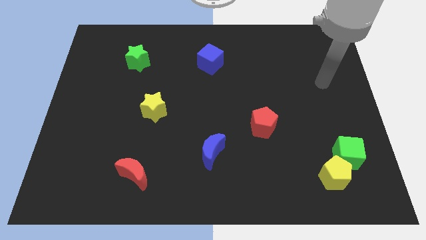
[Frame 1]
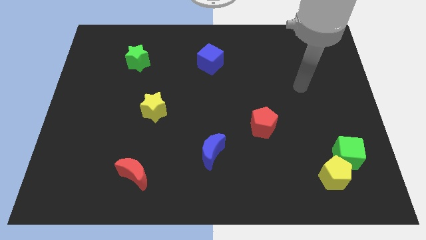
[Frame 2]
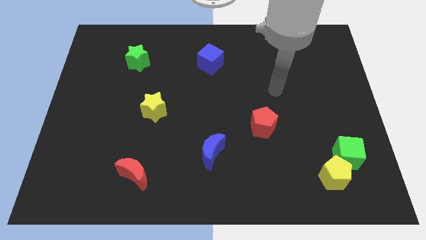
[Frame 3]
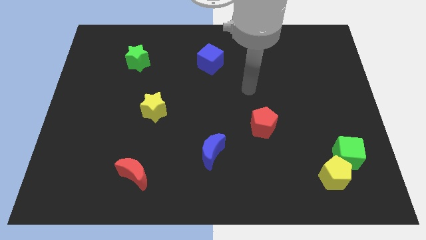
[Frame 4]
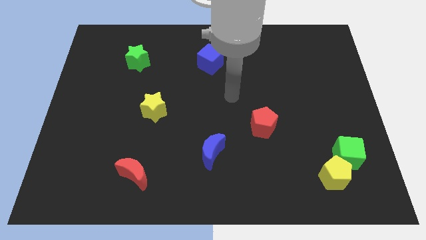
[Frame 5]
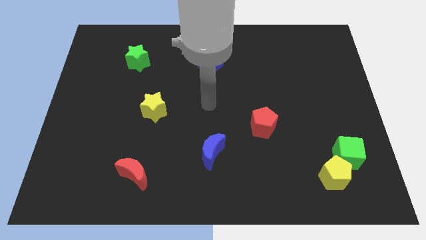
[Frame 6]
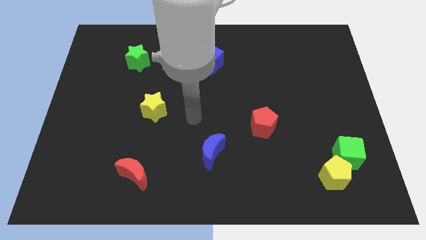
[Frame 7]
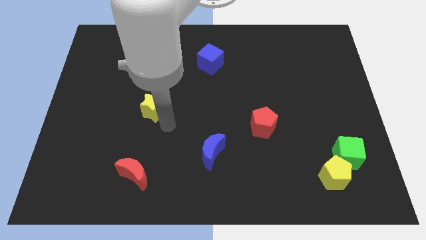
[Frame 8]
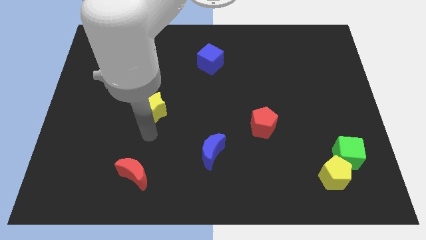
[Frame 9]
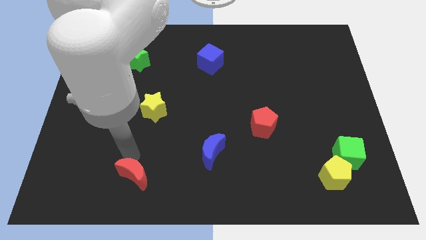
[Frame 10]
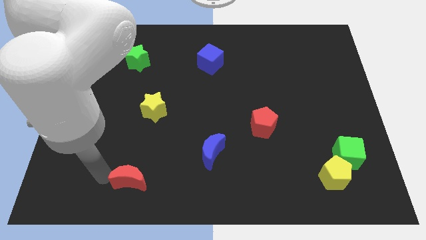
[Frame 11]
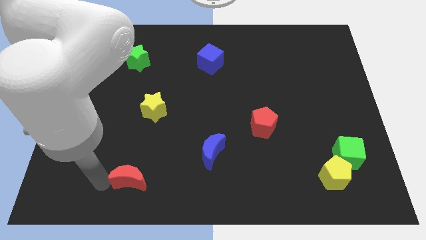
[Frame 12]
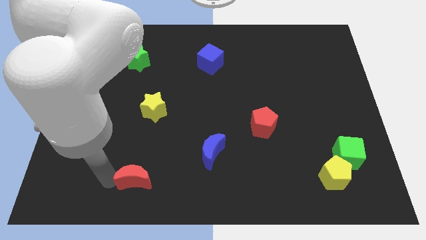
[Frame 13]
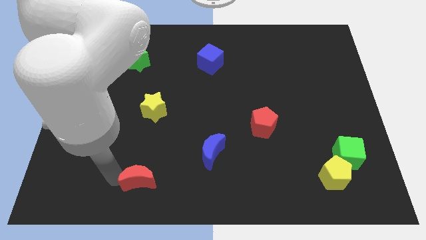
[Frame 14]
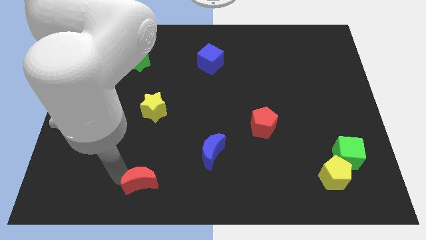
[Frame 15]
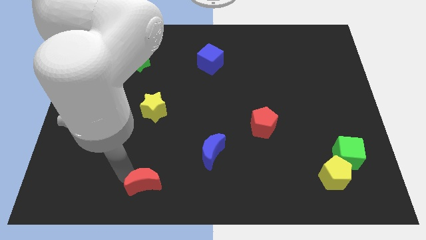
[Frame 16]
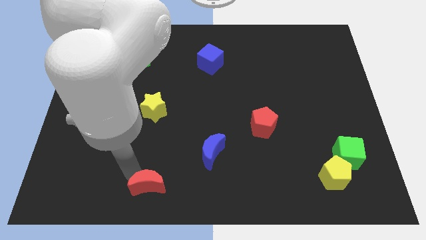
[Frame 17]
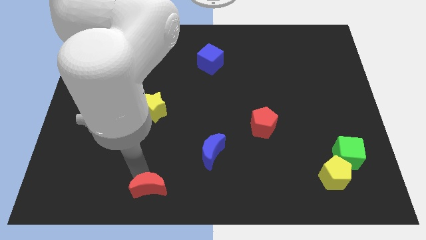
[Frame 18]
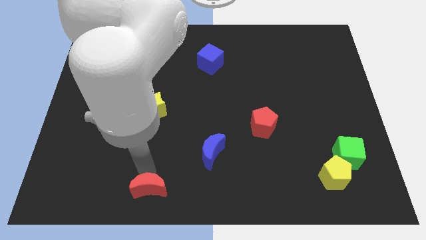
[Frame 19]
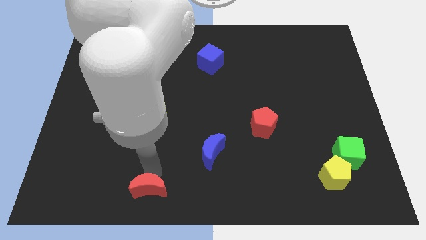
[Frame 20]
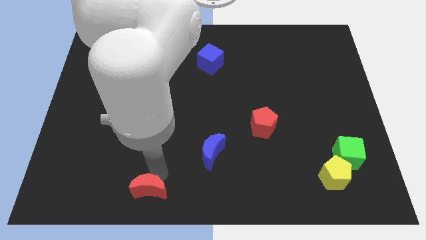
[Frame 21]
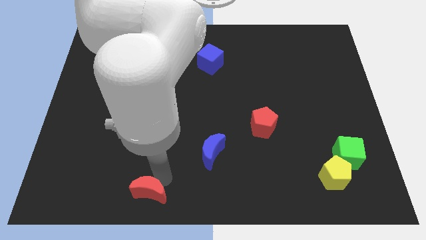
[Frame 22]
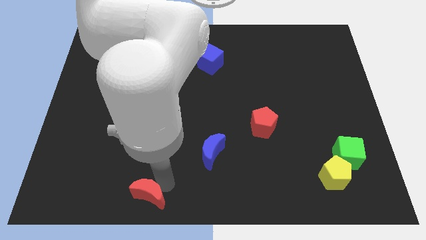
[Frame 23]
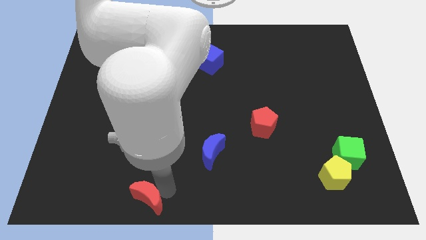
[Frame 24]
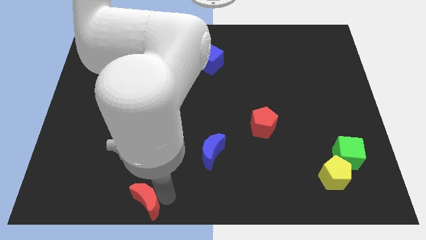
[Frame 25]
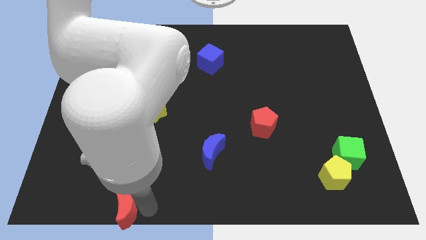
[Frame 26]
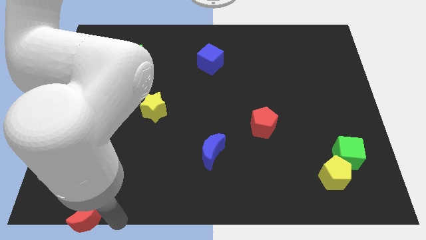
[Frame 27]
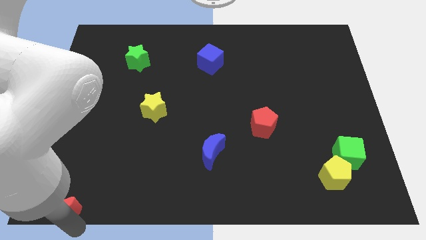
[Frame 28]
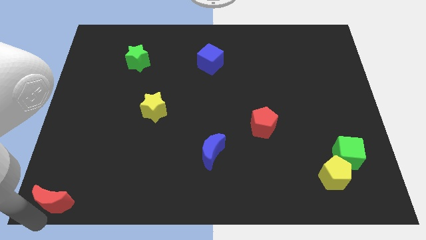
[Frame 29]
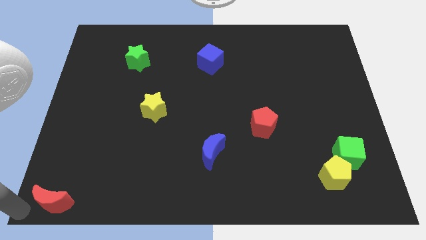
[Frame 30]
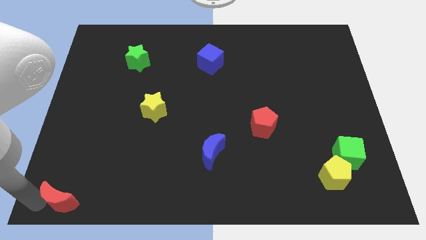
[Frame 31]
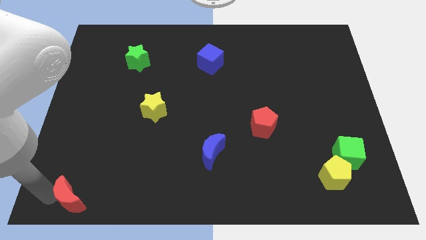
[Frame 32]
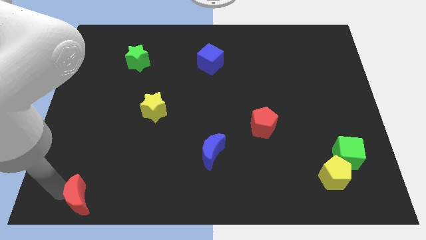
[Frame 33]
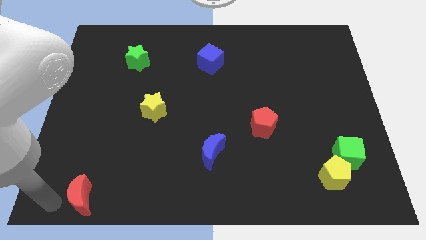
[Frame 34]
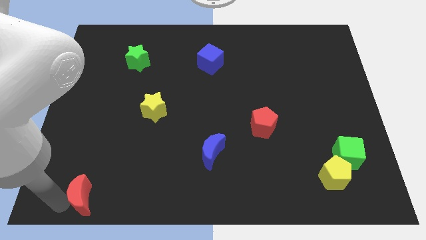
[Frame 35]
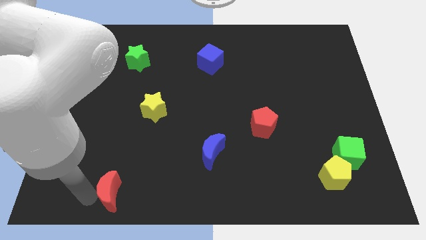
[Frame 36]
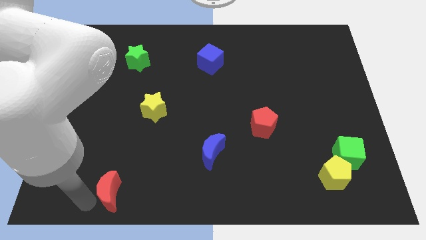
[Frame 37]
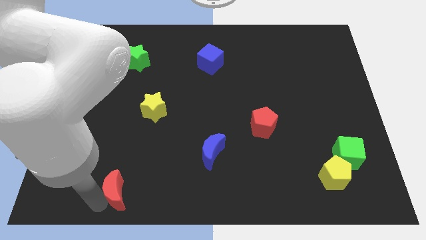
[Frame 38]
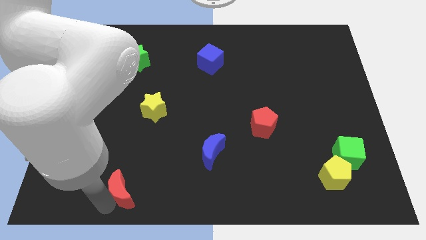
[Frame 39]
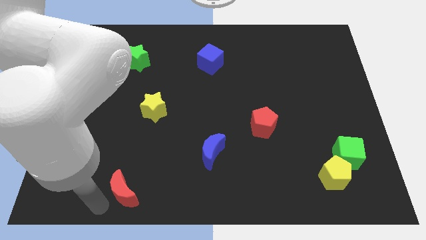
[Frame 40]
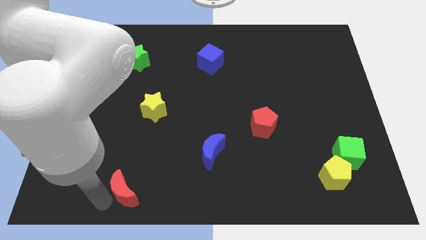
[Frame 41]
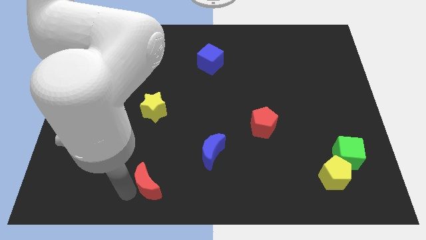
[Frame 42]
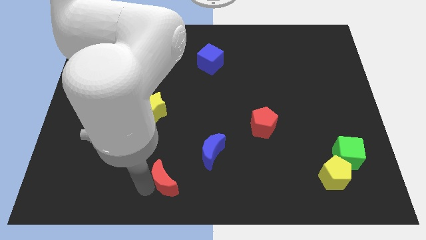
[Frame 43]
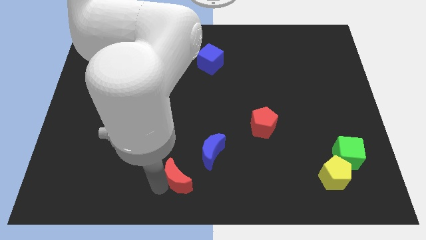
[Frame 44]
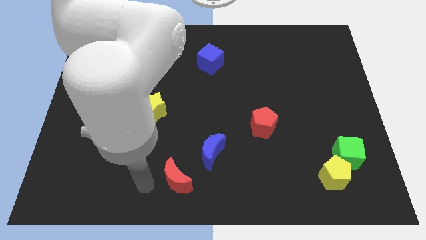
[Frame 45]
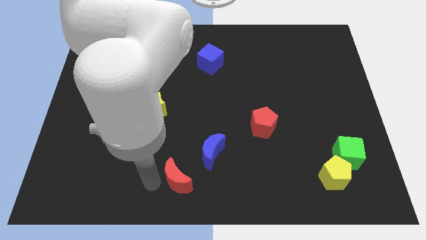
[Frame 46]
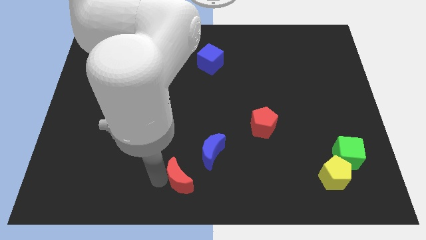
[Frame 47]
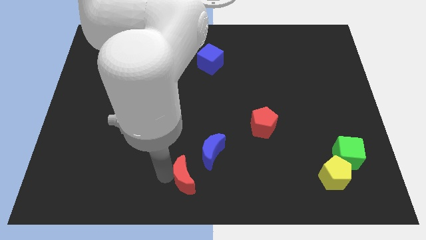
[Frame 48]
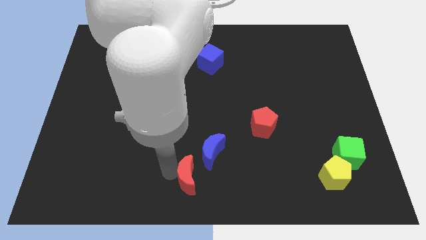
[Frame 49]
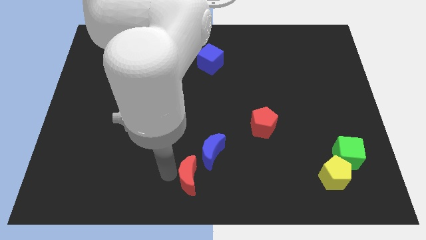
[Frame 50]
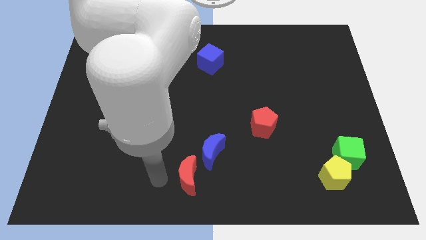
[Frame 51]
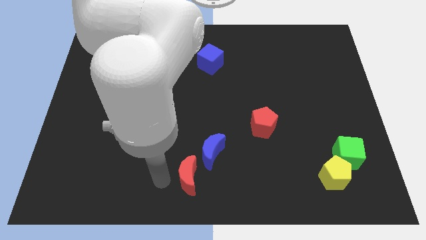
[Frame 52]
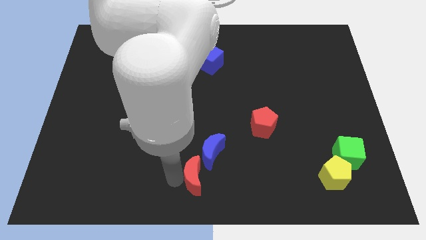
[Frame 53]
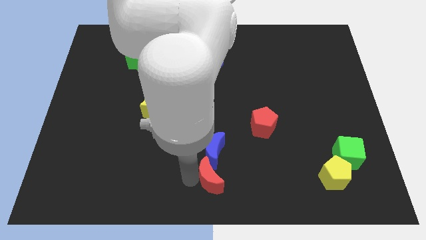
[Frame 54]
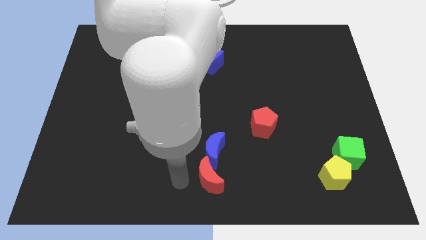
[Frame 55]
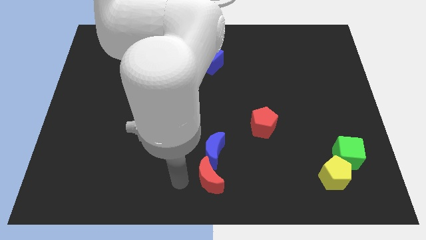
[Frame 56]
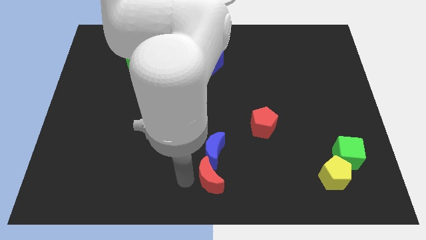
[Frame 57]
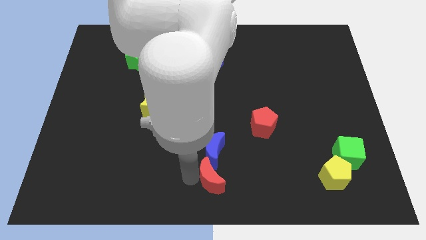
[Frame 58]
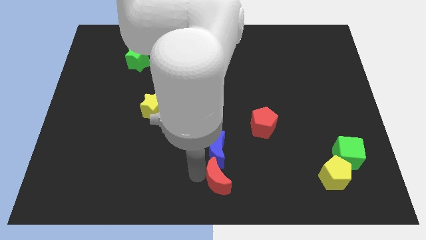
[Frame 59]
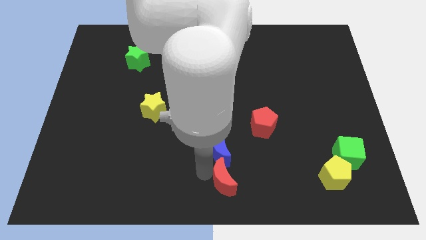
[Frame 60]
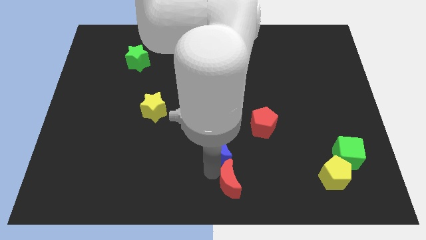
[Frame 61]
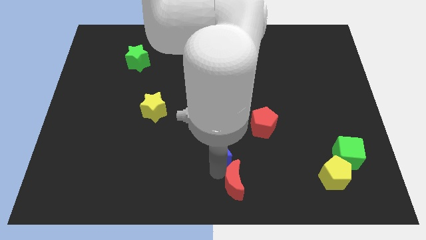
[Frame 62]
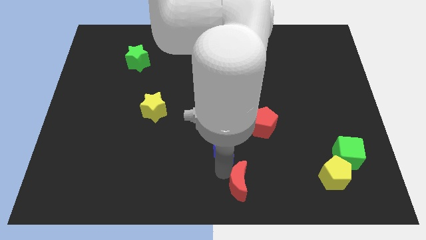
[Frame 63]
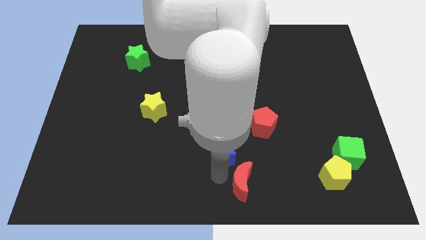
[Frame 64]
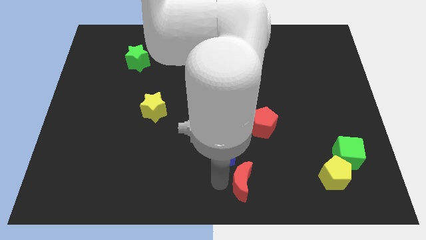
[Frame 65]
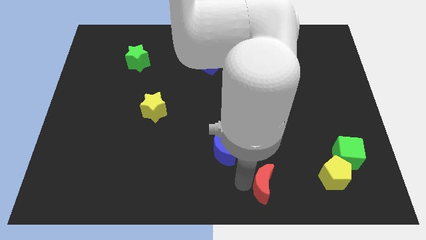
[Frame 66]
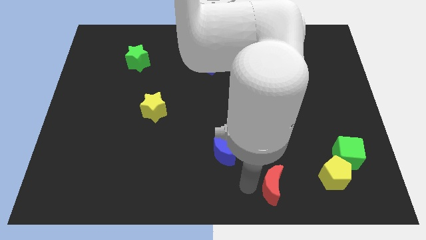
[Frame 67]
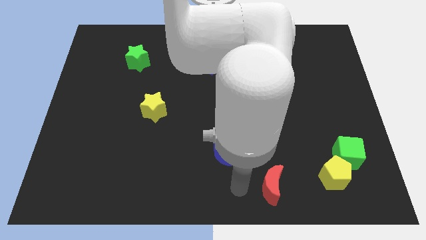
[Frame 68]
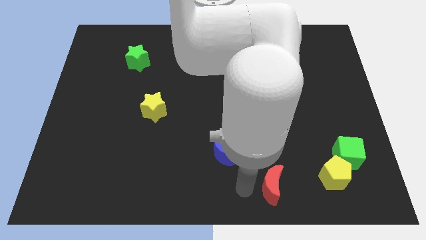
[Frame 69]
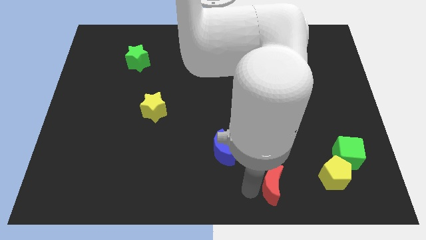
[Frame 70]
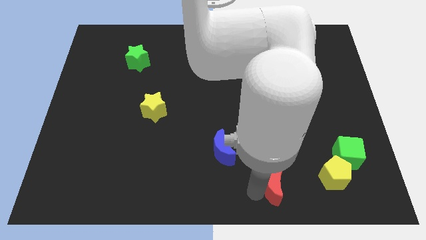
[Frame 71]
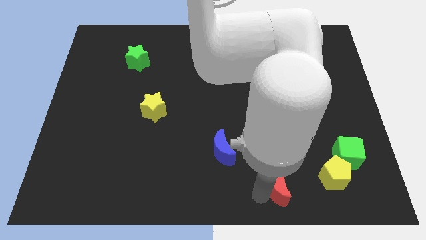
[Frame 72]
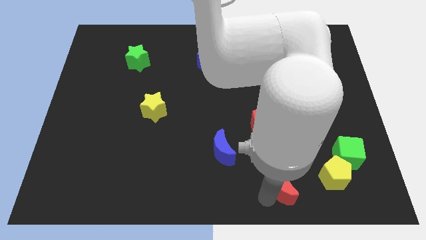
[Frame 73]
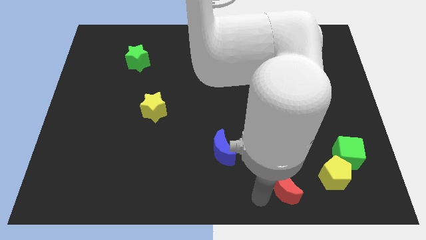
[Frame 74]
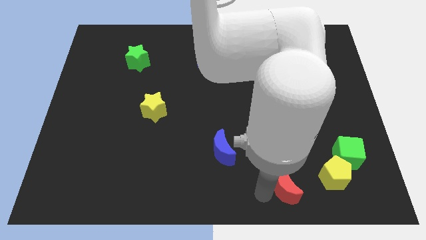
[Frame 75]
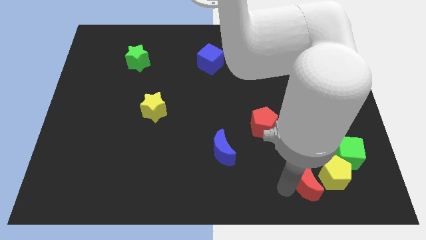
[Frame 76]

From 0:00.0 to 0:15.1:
slide the red moon next to the yellow pentagon
